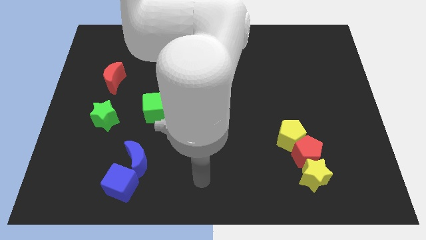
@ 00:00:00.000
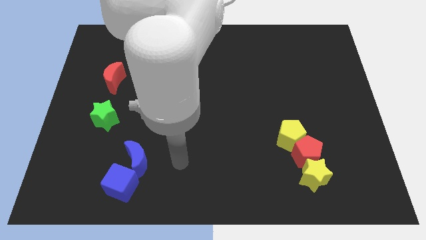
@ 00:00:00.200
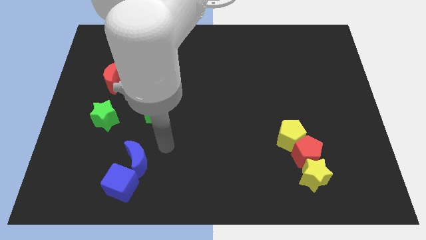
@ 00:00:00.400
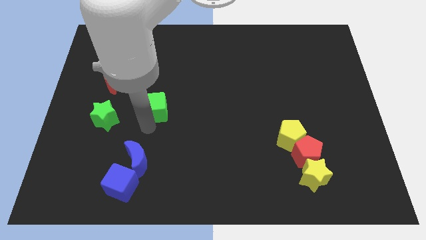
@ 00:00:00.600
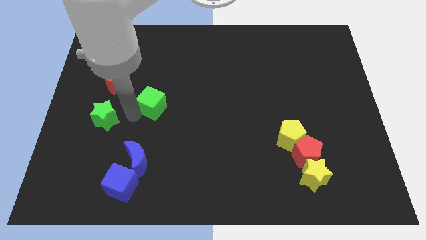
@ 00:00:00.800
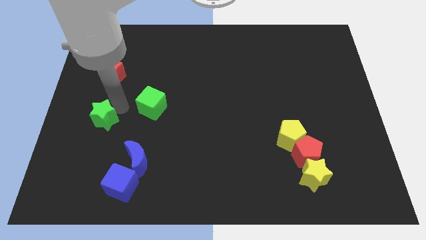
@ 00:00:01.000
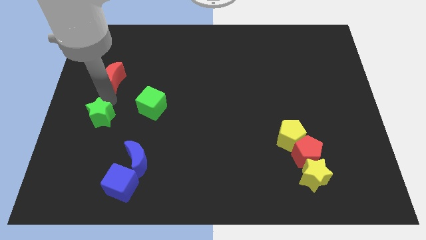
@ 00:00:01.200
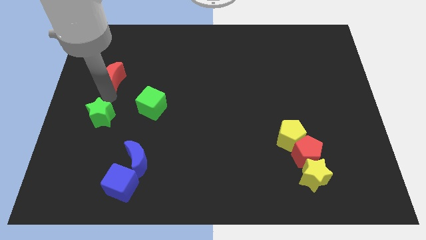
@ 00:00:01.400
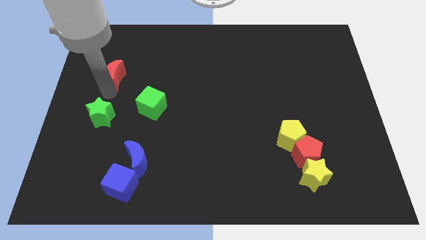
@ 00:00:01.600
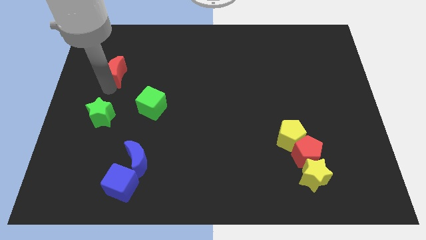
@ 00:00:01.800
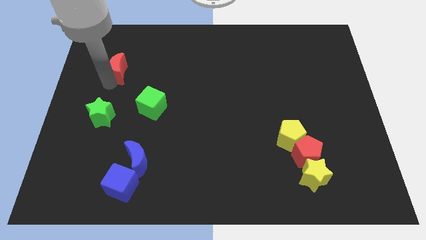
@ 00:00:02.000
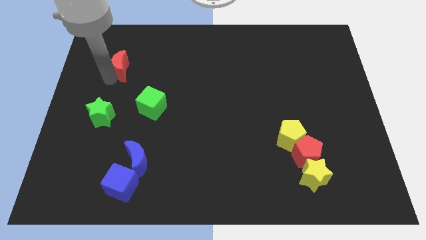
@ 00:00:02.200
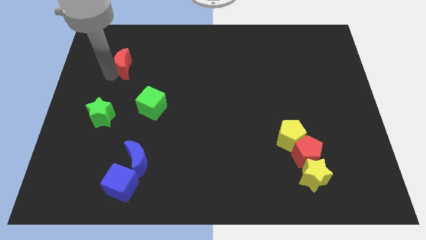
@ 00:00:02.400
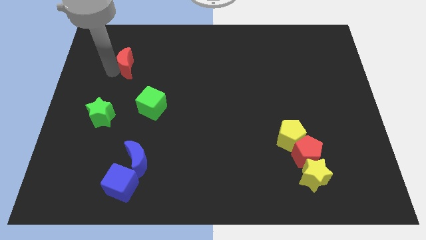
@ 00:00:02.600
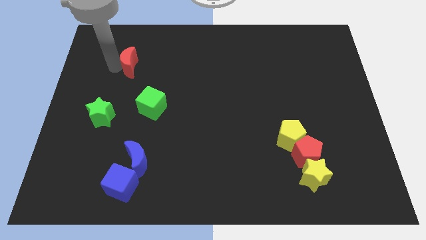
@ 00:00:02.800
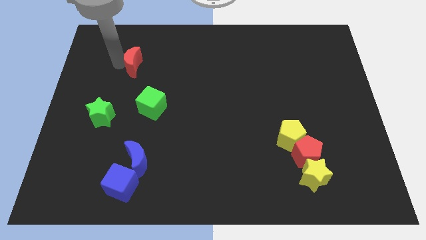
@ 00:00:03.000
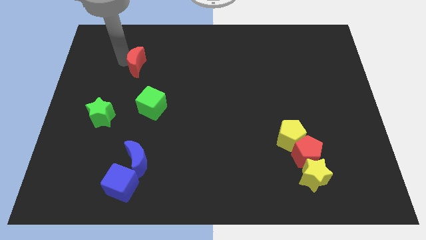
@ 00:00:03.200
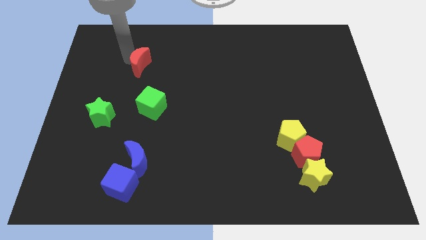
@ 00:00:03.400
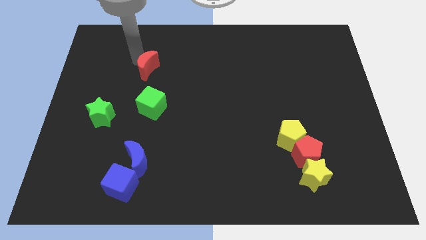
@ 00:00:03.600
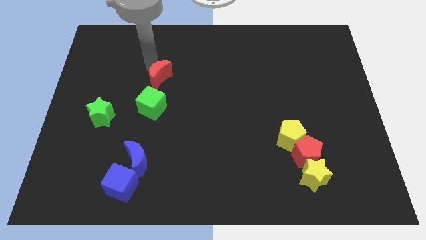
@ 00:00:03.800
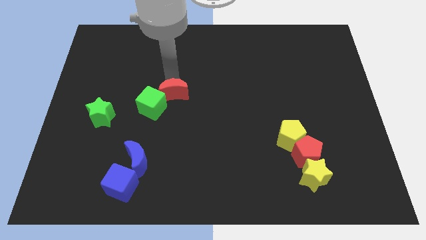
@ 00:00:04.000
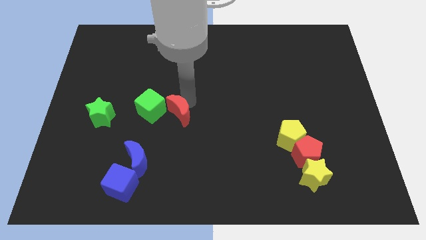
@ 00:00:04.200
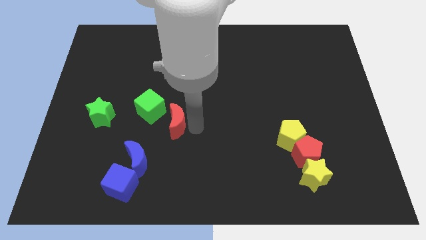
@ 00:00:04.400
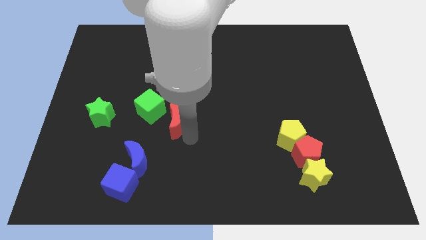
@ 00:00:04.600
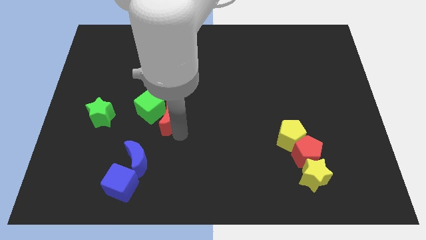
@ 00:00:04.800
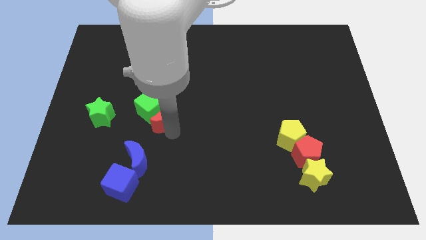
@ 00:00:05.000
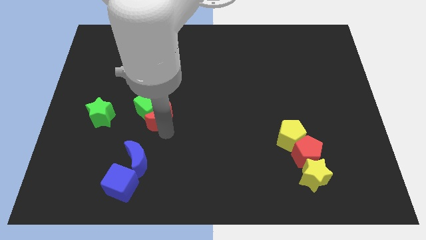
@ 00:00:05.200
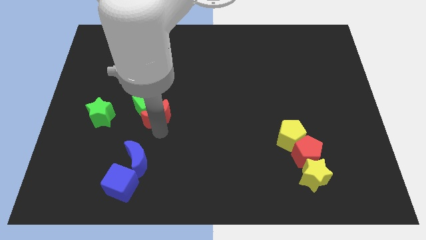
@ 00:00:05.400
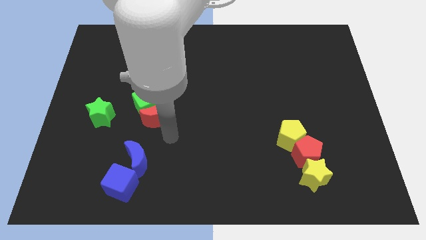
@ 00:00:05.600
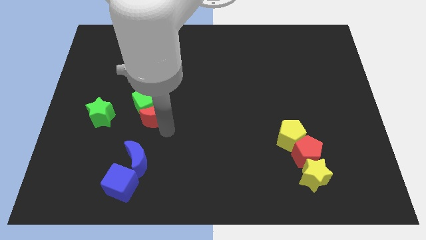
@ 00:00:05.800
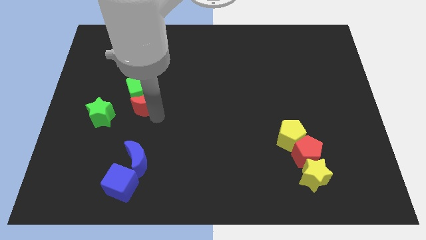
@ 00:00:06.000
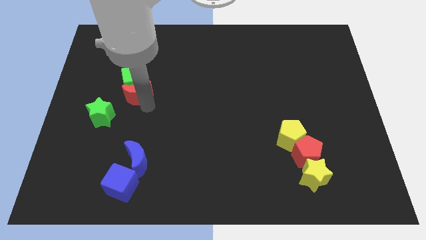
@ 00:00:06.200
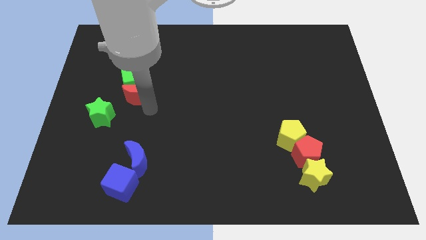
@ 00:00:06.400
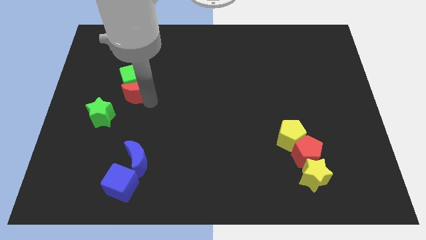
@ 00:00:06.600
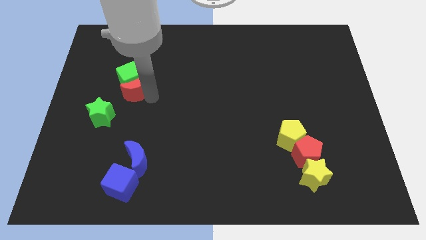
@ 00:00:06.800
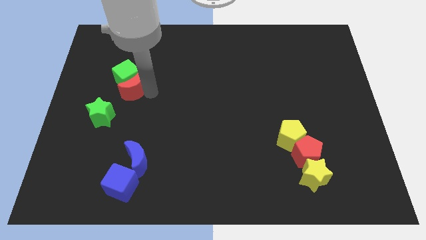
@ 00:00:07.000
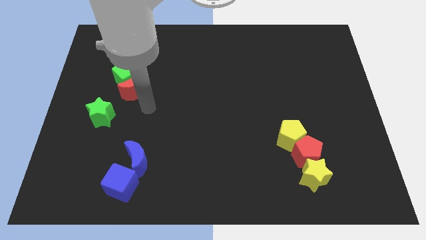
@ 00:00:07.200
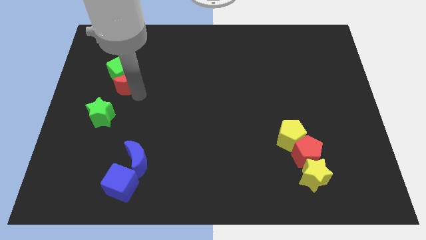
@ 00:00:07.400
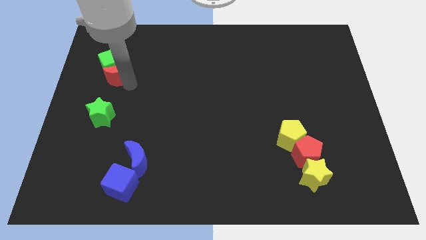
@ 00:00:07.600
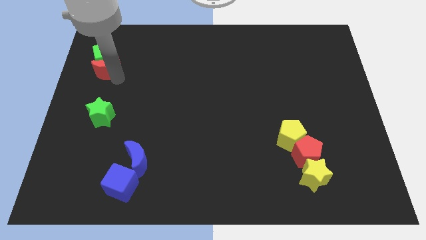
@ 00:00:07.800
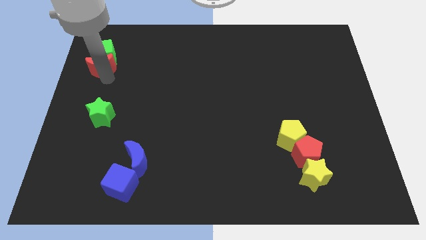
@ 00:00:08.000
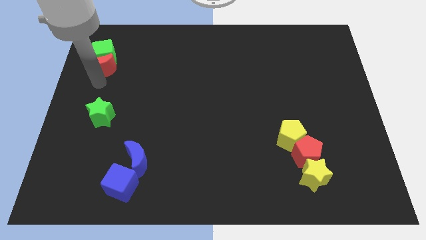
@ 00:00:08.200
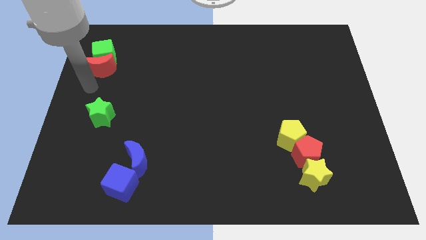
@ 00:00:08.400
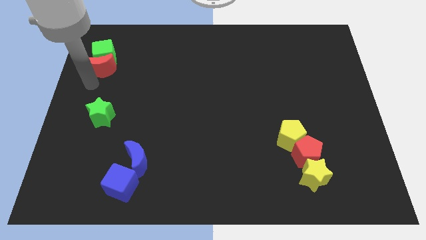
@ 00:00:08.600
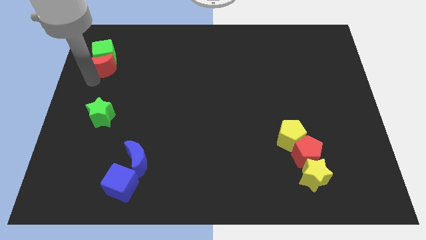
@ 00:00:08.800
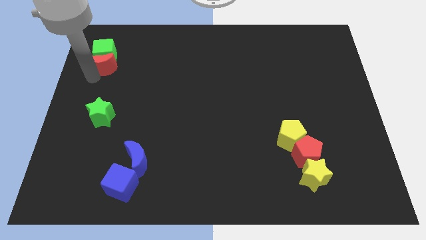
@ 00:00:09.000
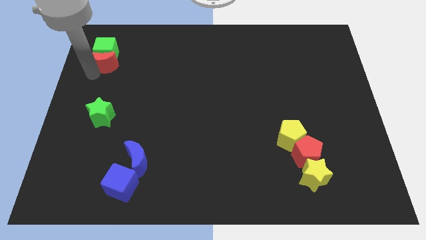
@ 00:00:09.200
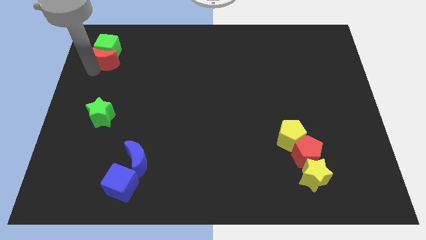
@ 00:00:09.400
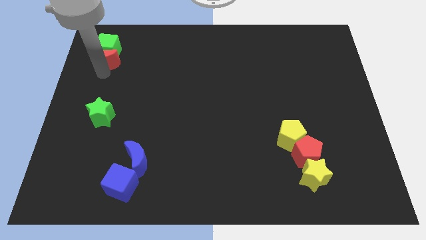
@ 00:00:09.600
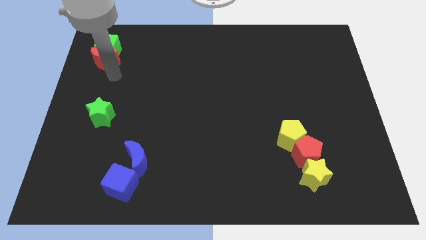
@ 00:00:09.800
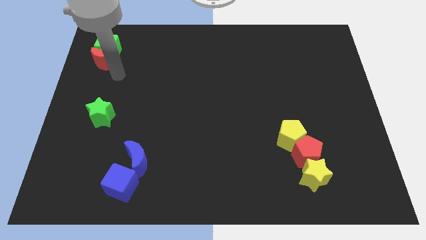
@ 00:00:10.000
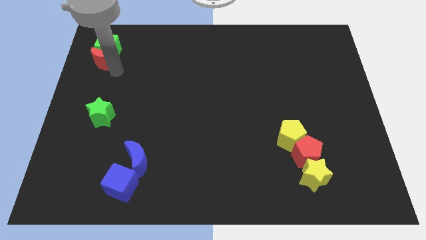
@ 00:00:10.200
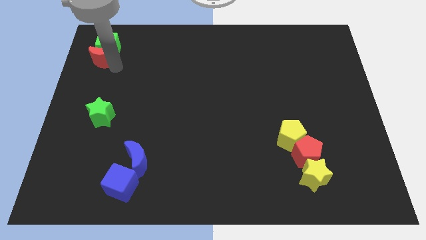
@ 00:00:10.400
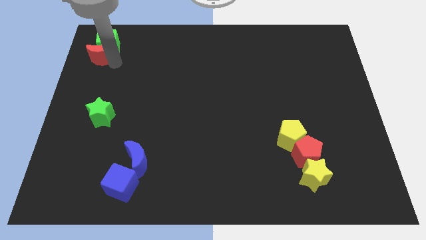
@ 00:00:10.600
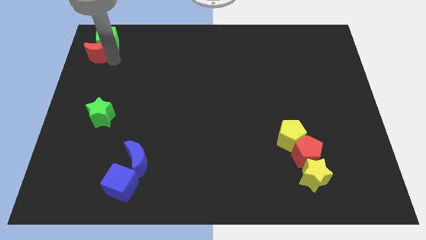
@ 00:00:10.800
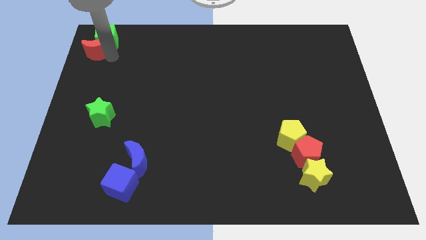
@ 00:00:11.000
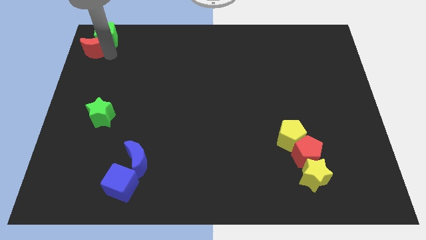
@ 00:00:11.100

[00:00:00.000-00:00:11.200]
put the red moon to the upper left corner

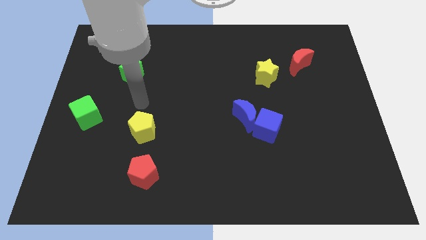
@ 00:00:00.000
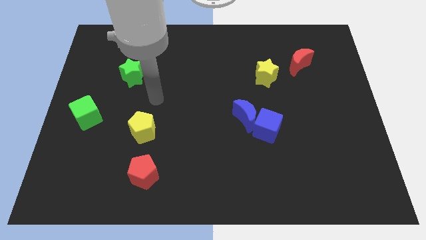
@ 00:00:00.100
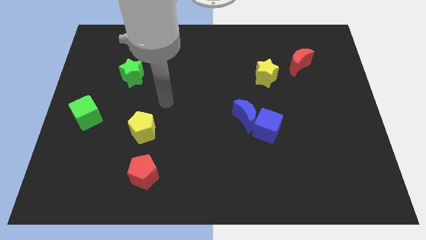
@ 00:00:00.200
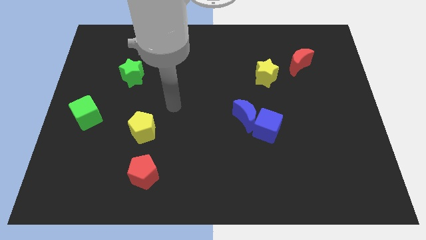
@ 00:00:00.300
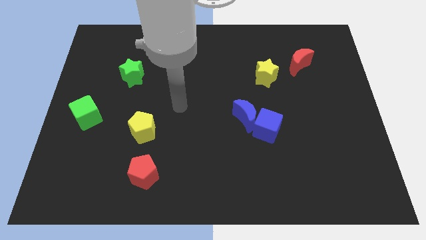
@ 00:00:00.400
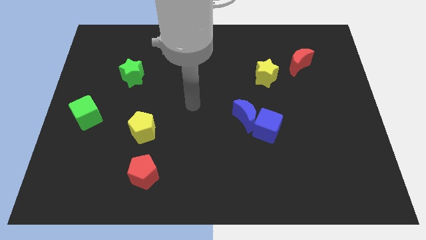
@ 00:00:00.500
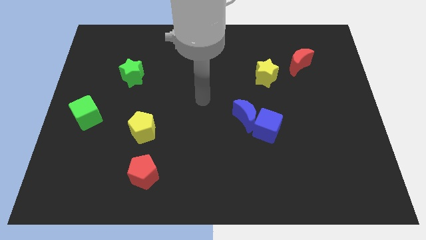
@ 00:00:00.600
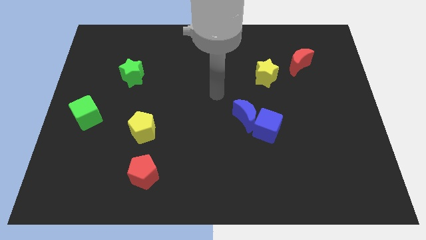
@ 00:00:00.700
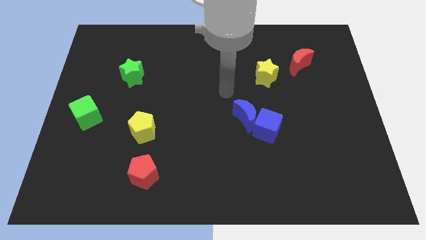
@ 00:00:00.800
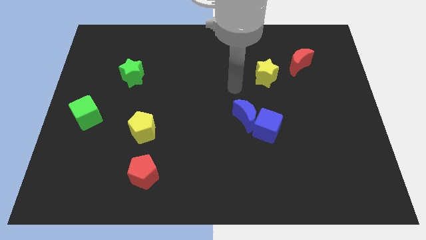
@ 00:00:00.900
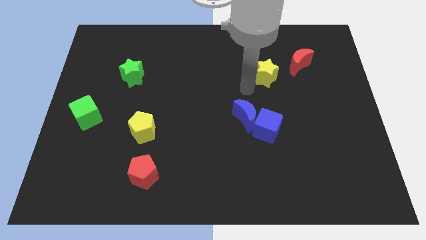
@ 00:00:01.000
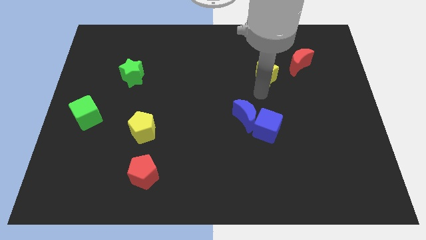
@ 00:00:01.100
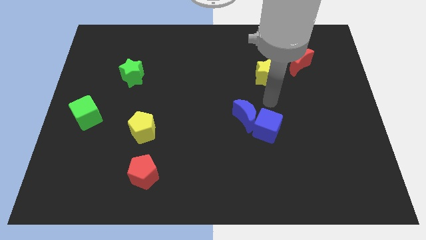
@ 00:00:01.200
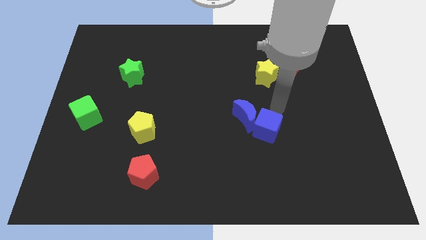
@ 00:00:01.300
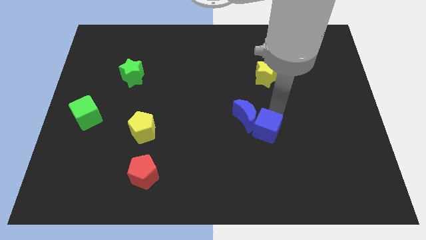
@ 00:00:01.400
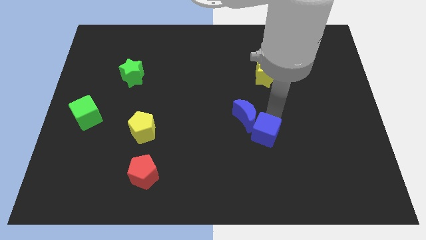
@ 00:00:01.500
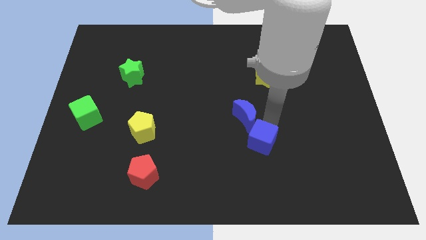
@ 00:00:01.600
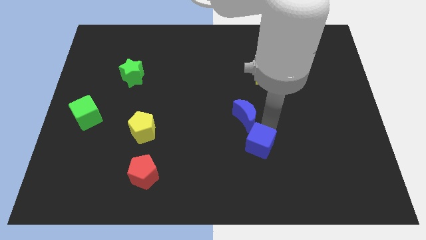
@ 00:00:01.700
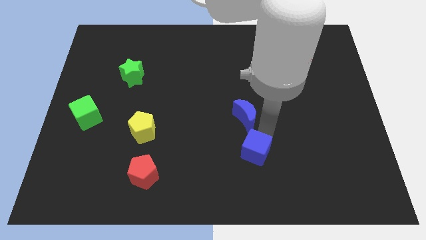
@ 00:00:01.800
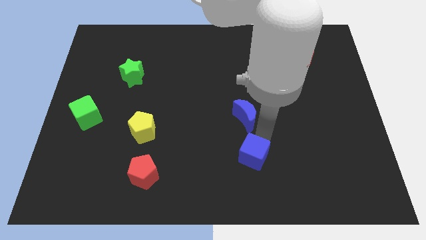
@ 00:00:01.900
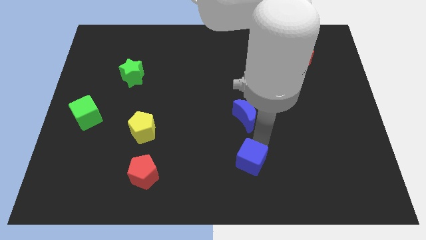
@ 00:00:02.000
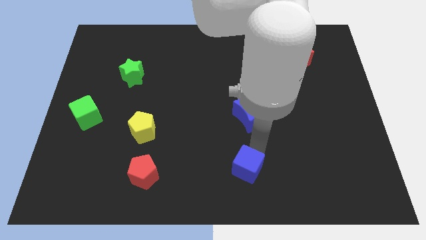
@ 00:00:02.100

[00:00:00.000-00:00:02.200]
put the blue cube to the bottom
